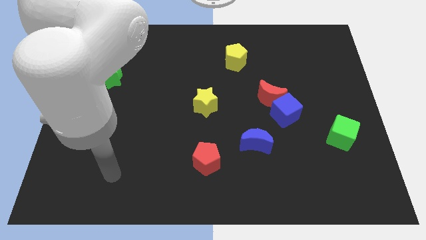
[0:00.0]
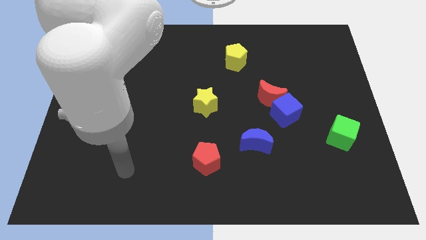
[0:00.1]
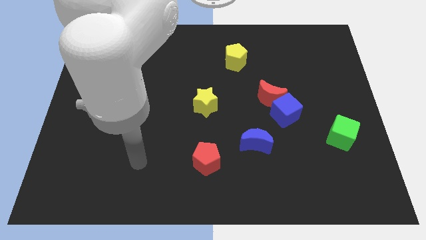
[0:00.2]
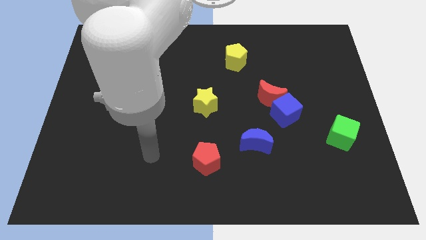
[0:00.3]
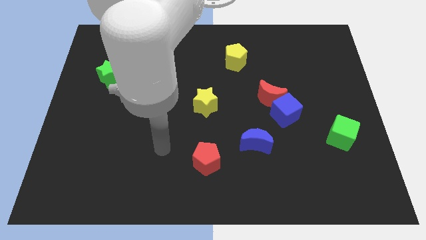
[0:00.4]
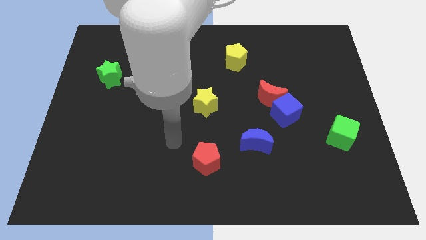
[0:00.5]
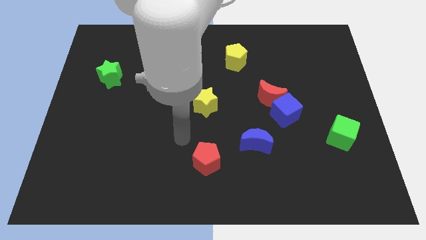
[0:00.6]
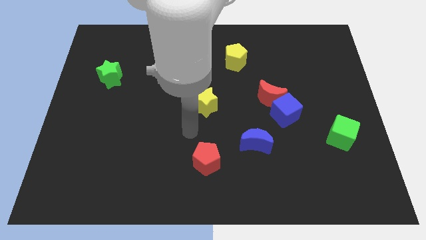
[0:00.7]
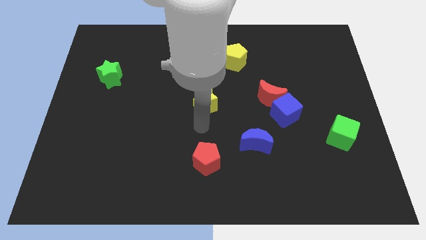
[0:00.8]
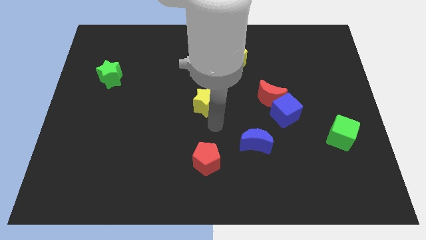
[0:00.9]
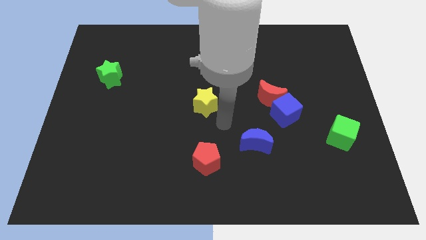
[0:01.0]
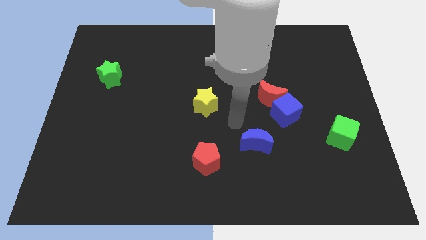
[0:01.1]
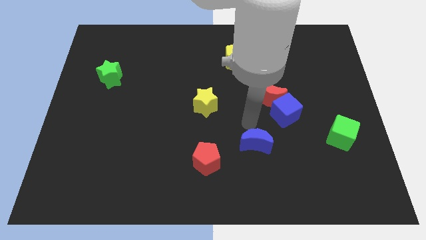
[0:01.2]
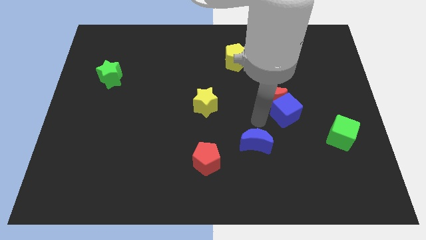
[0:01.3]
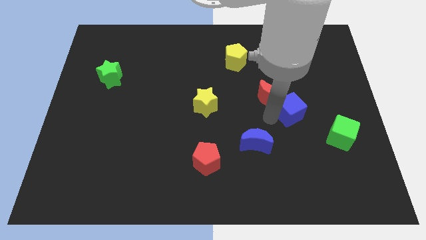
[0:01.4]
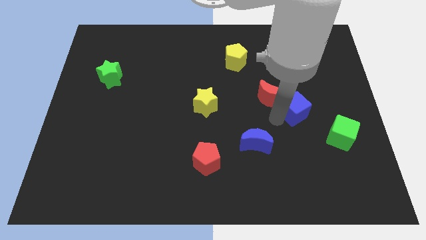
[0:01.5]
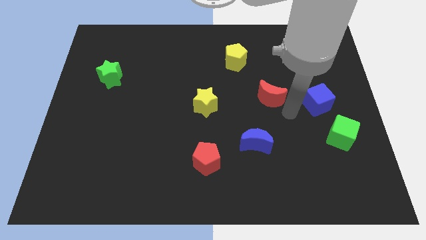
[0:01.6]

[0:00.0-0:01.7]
separate the red moon from the blue cube

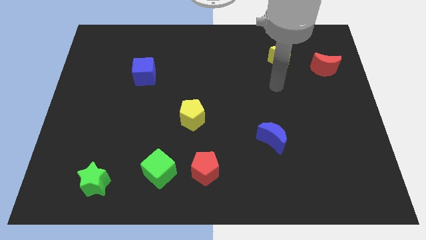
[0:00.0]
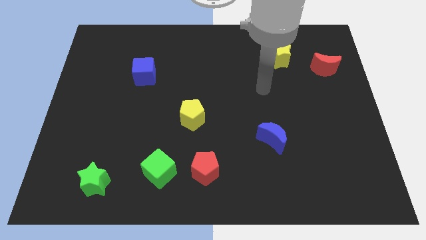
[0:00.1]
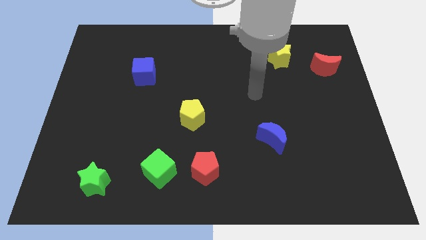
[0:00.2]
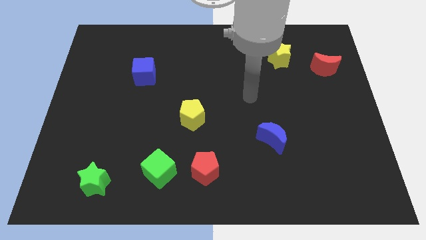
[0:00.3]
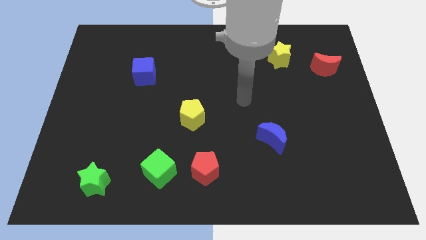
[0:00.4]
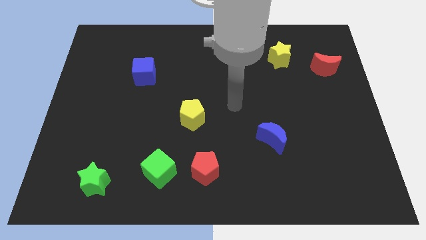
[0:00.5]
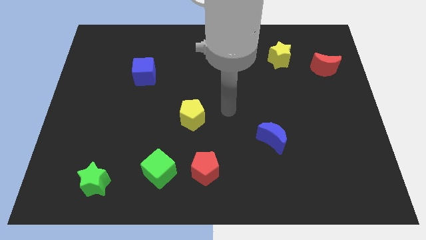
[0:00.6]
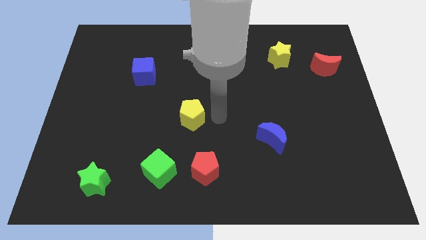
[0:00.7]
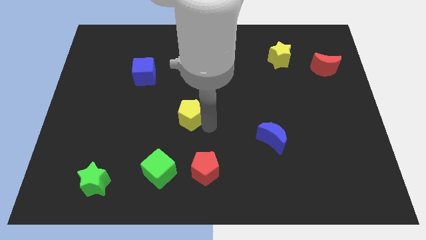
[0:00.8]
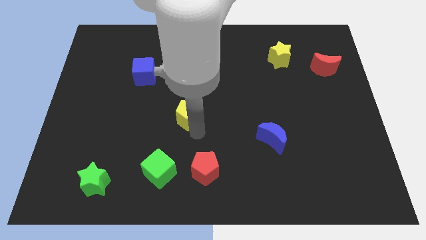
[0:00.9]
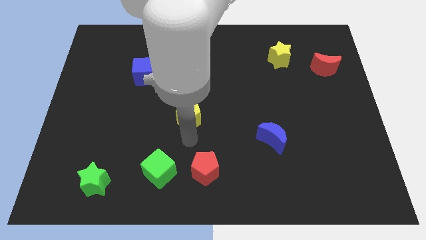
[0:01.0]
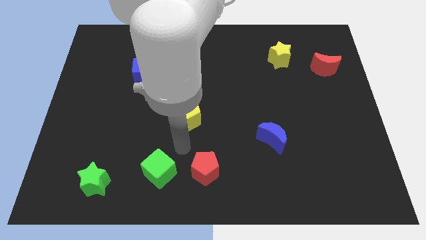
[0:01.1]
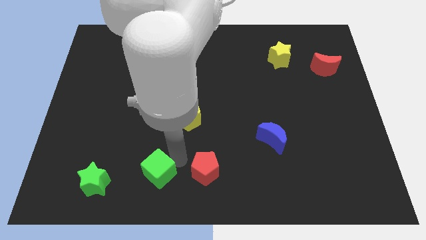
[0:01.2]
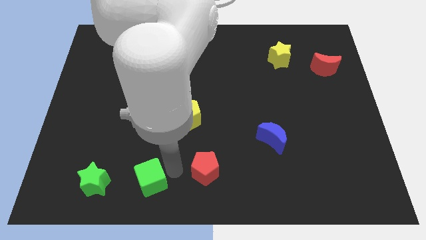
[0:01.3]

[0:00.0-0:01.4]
pull the red pentagon apart from the green cube

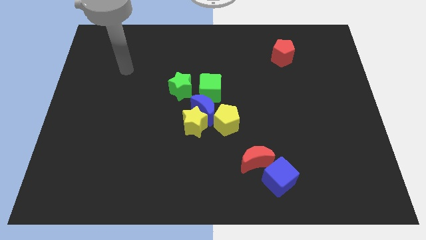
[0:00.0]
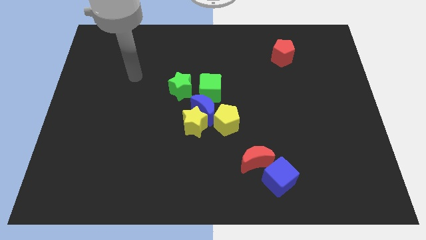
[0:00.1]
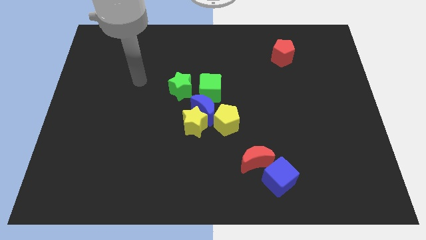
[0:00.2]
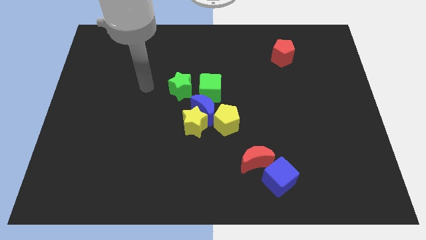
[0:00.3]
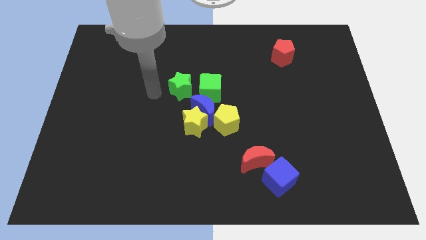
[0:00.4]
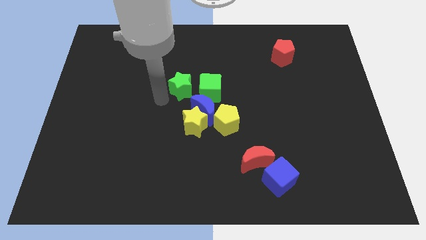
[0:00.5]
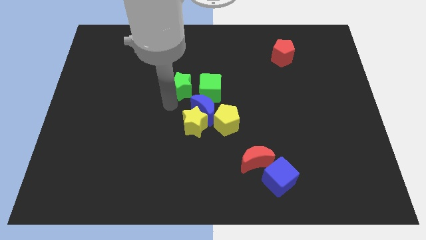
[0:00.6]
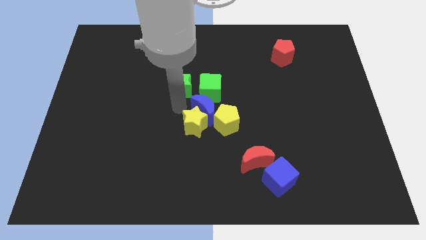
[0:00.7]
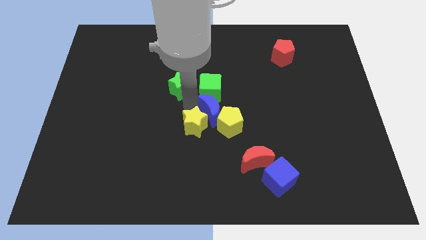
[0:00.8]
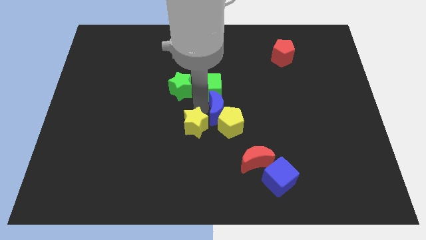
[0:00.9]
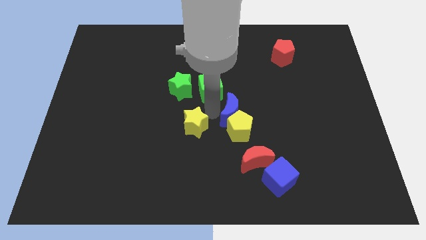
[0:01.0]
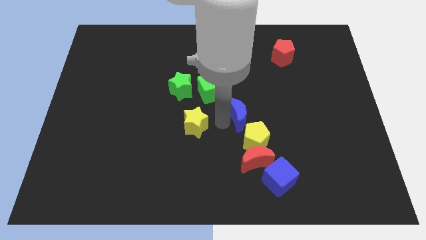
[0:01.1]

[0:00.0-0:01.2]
move the yellow star away from the blue moon and yellow pentagon

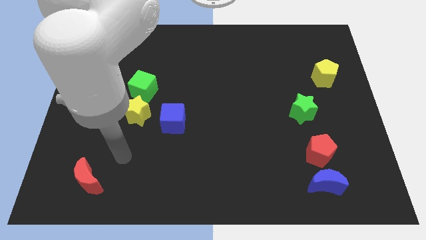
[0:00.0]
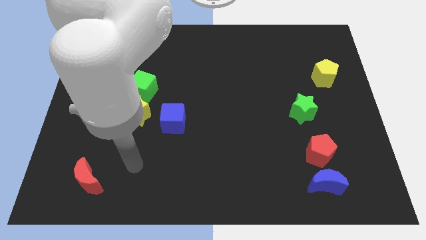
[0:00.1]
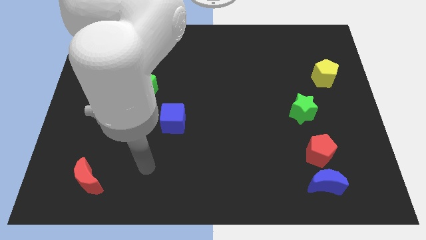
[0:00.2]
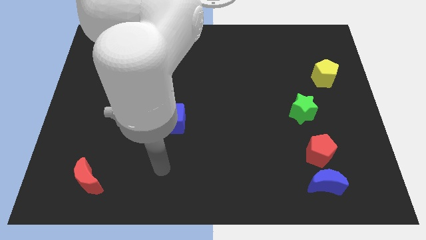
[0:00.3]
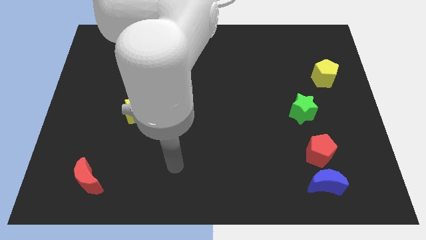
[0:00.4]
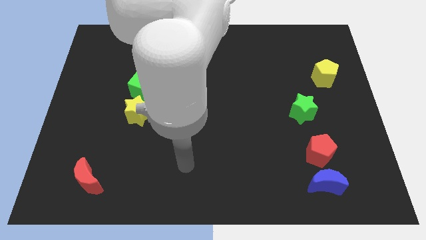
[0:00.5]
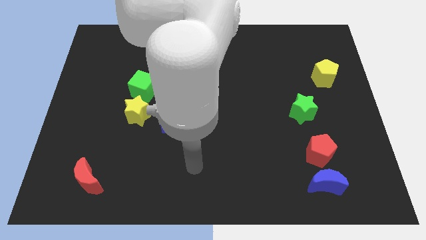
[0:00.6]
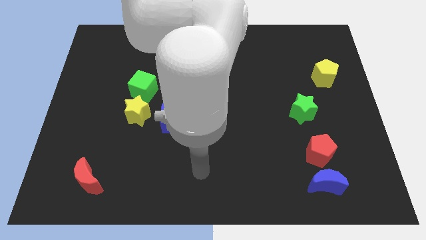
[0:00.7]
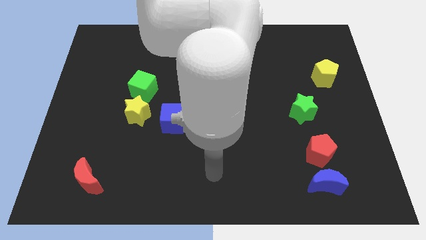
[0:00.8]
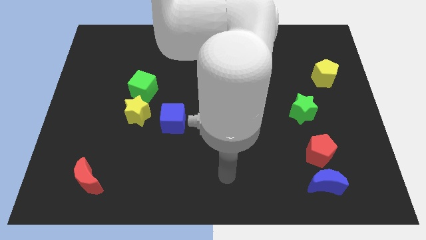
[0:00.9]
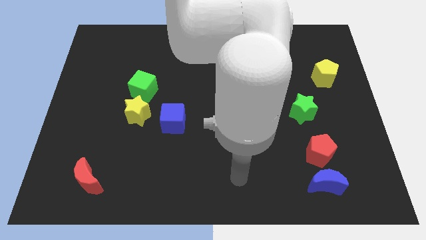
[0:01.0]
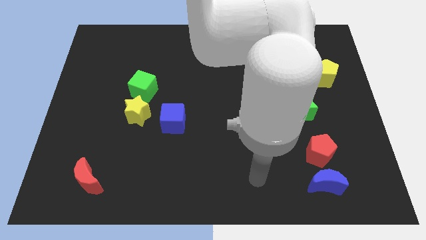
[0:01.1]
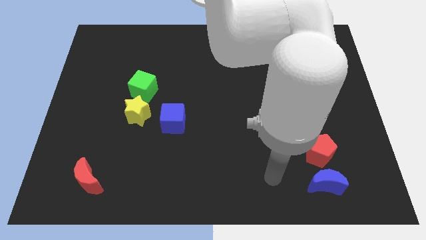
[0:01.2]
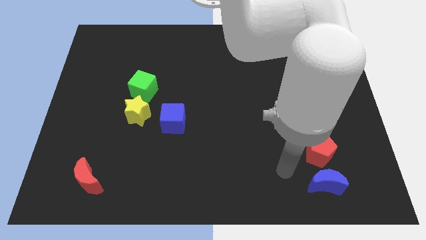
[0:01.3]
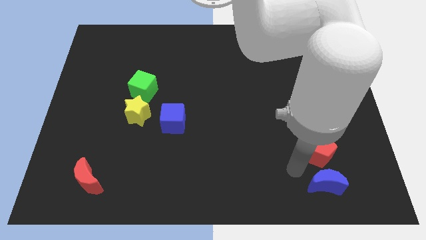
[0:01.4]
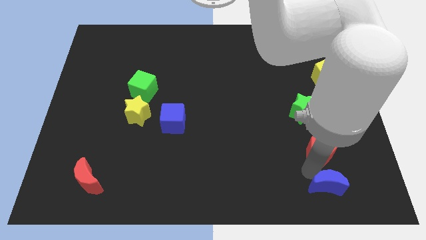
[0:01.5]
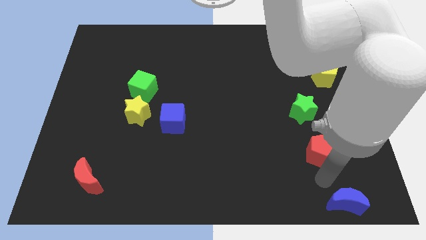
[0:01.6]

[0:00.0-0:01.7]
pull the red pentagon apart from the blue moon

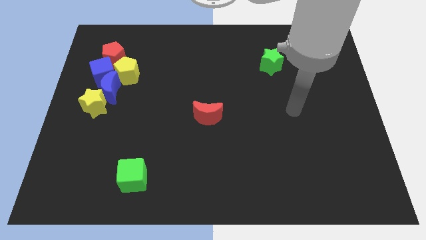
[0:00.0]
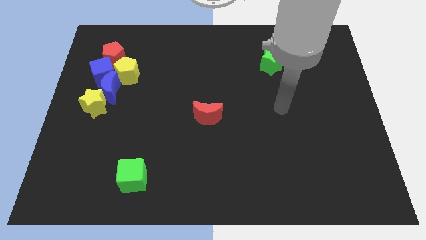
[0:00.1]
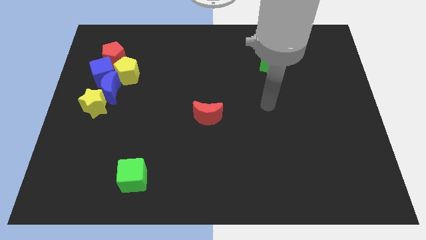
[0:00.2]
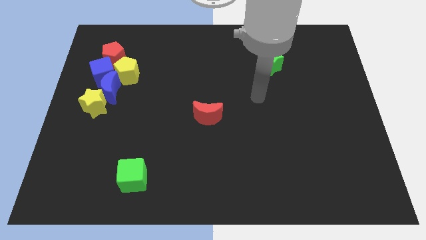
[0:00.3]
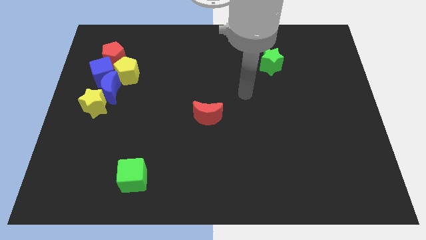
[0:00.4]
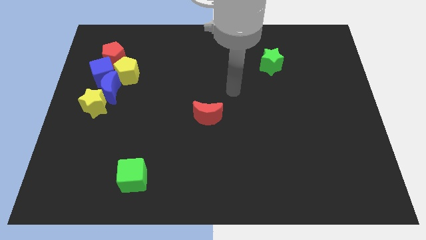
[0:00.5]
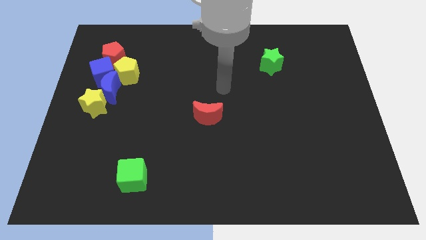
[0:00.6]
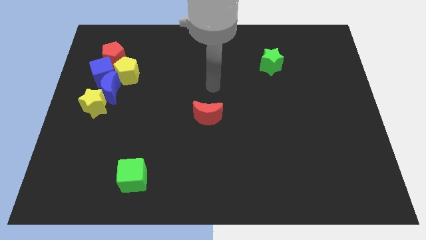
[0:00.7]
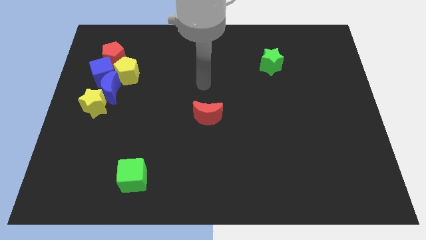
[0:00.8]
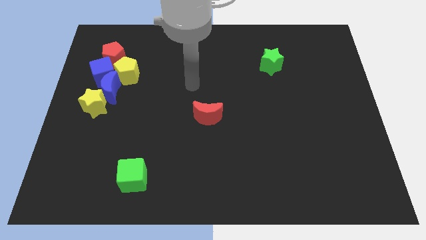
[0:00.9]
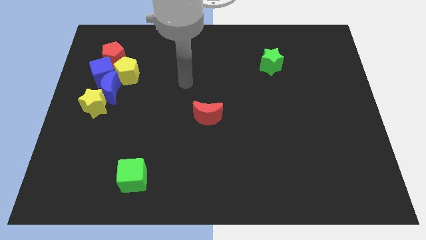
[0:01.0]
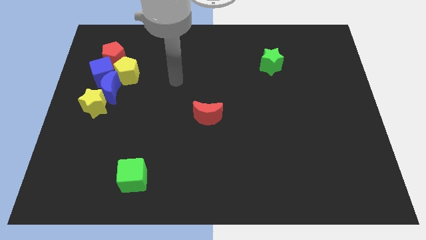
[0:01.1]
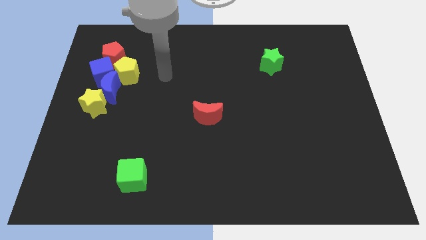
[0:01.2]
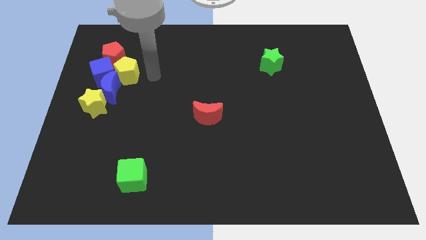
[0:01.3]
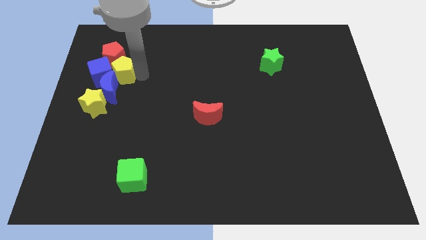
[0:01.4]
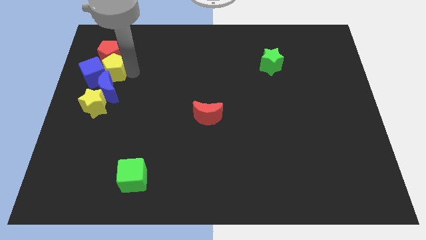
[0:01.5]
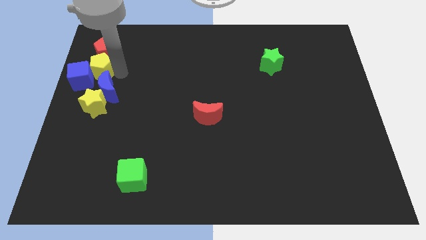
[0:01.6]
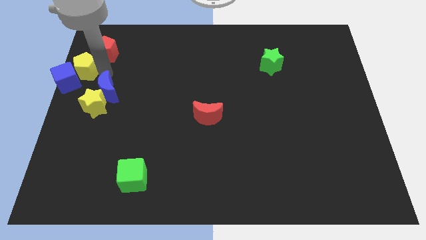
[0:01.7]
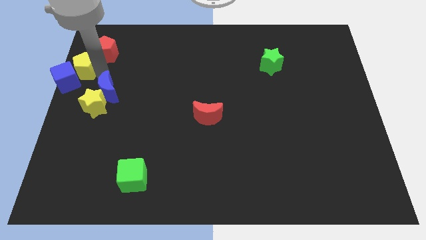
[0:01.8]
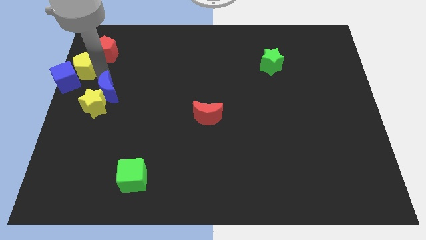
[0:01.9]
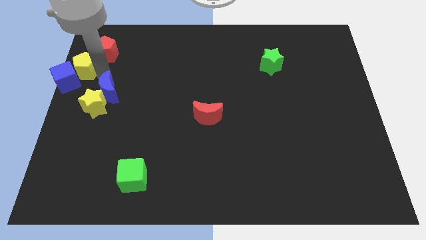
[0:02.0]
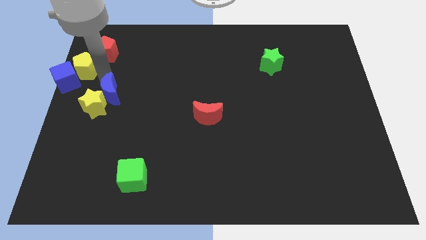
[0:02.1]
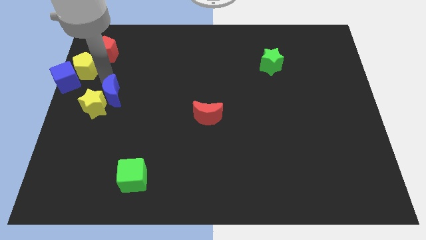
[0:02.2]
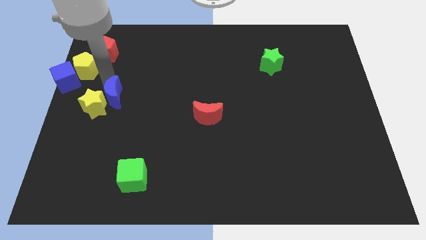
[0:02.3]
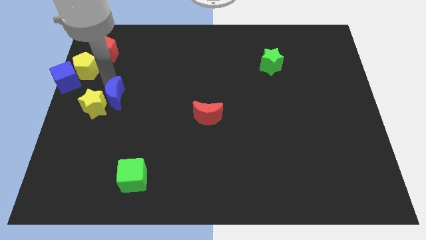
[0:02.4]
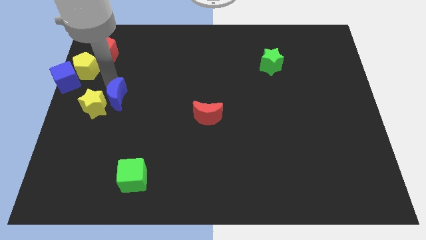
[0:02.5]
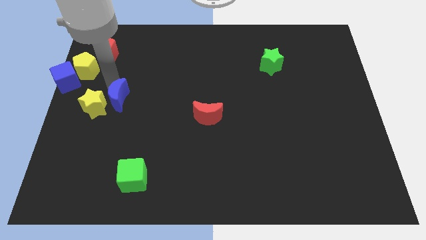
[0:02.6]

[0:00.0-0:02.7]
move the blue moon away from the blue cube, yellow star, and yellow pentagon

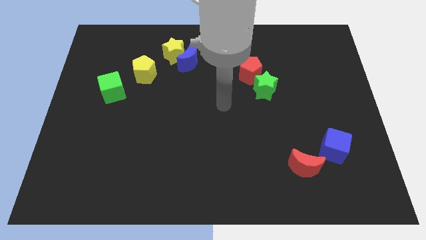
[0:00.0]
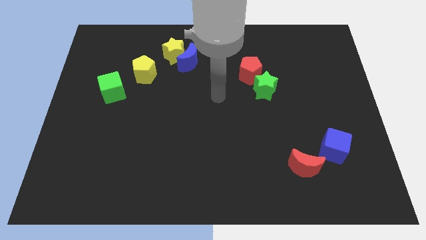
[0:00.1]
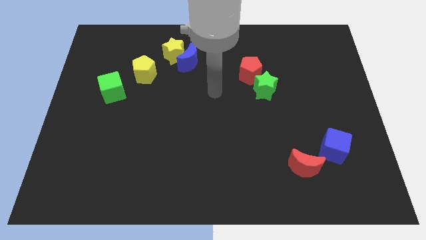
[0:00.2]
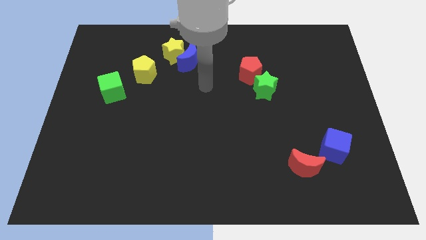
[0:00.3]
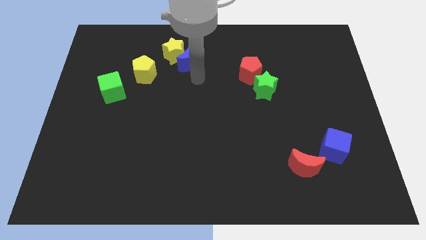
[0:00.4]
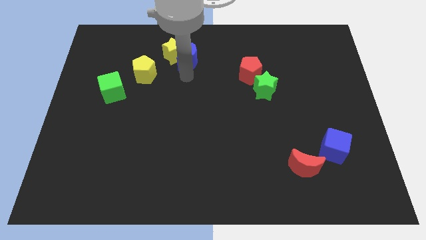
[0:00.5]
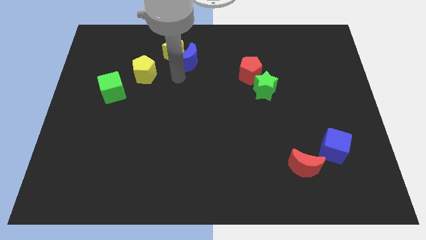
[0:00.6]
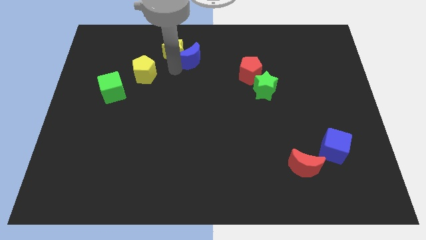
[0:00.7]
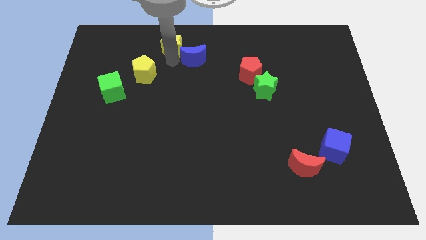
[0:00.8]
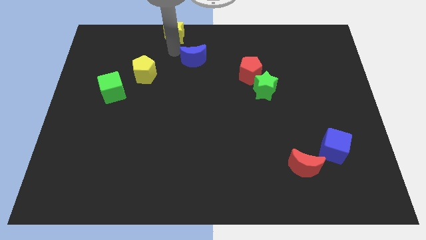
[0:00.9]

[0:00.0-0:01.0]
pull the blue moon apart from the yellow star
